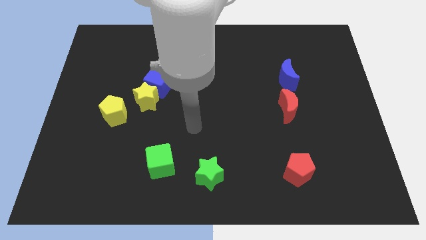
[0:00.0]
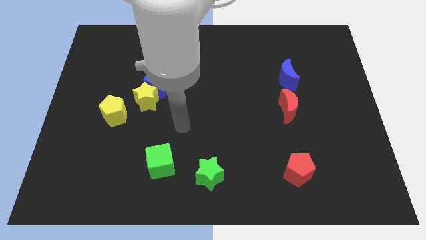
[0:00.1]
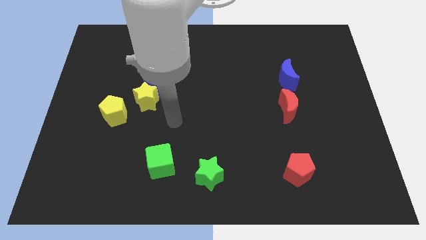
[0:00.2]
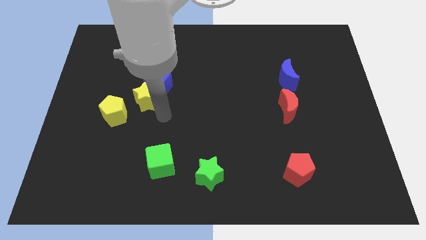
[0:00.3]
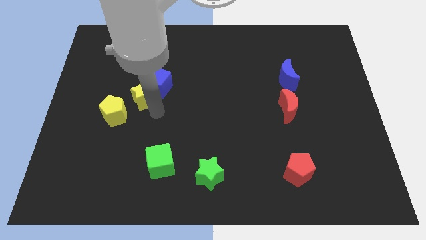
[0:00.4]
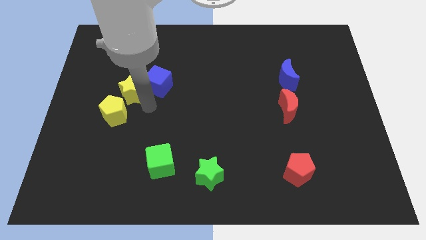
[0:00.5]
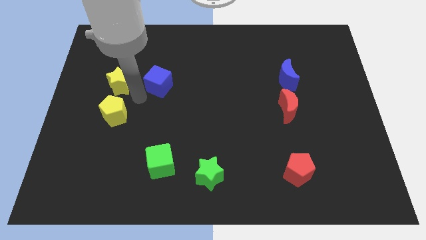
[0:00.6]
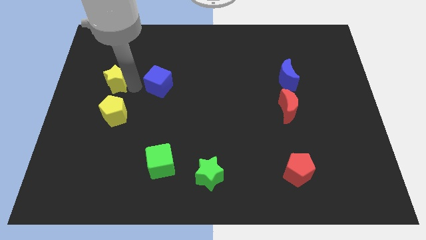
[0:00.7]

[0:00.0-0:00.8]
separate the blue cube from the yellow star

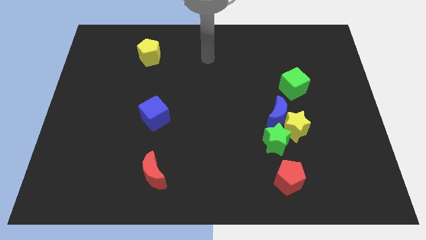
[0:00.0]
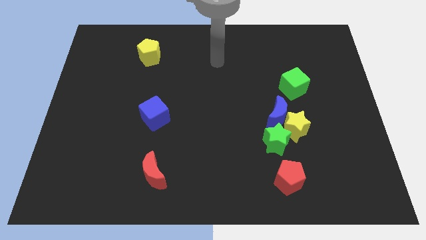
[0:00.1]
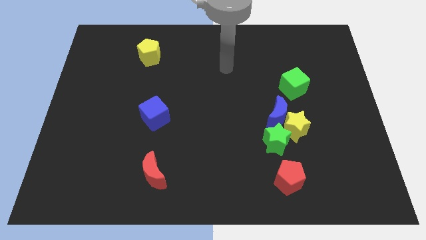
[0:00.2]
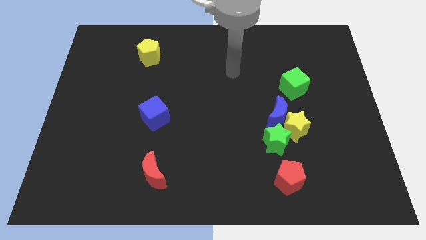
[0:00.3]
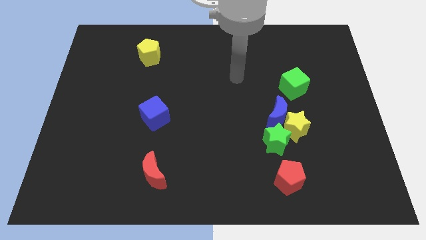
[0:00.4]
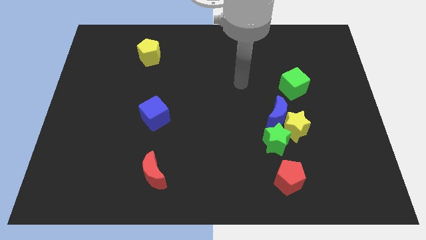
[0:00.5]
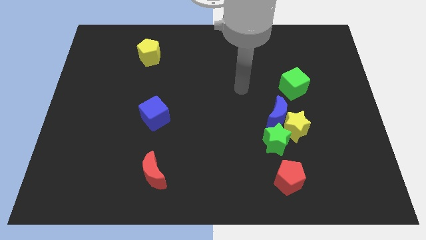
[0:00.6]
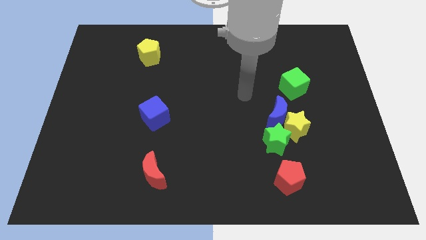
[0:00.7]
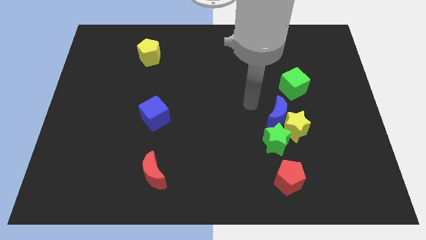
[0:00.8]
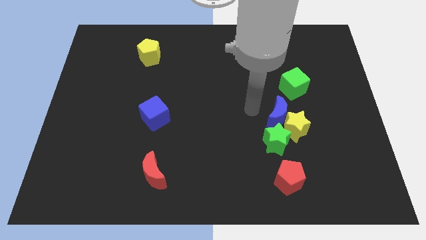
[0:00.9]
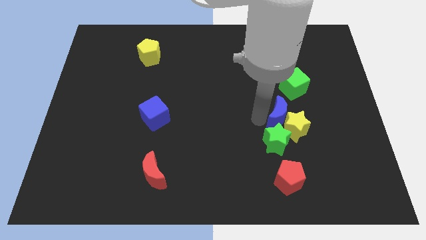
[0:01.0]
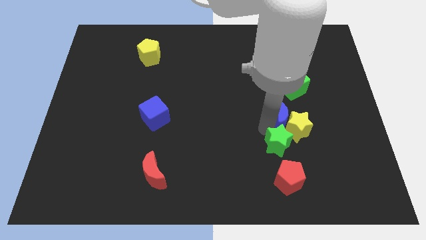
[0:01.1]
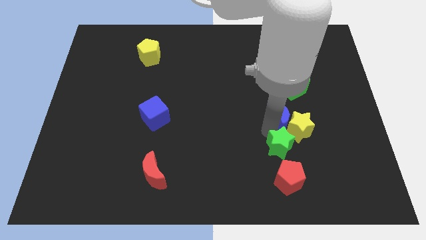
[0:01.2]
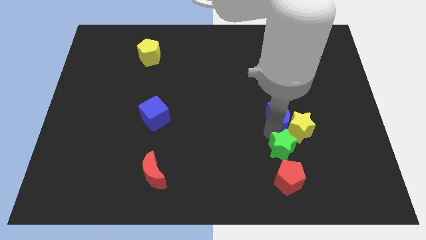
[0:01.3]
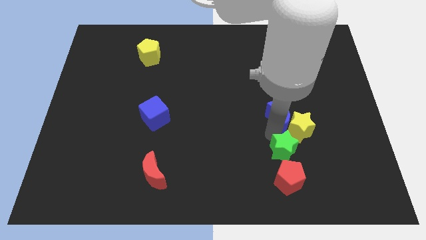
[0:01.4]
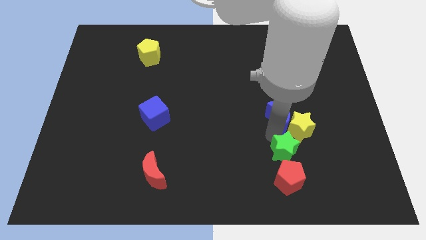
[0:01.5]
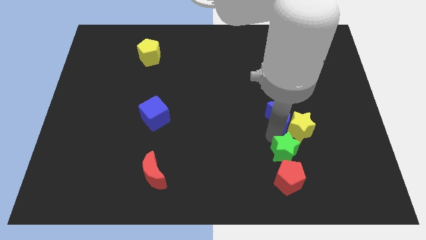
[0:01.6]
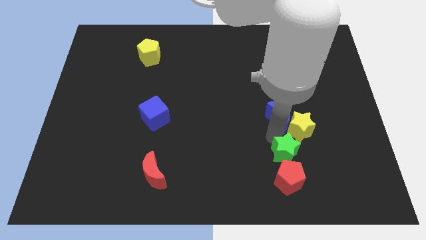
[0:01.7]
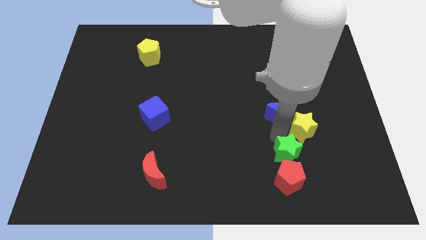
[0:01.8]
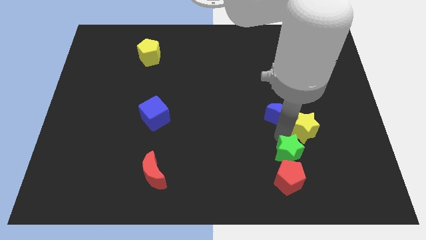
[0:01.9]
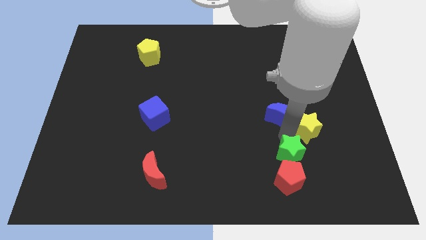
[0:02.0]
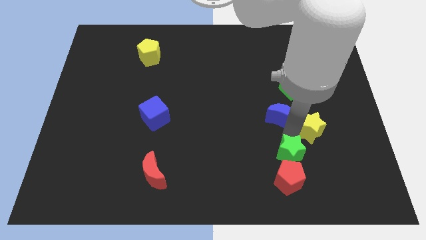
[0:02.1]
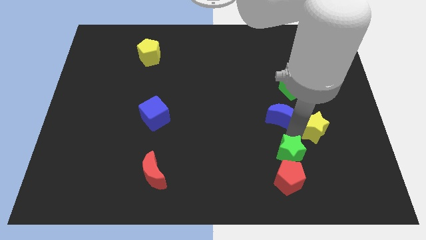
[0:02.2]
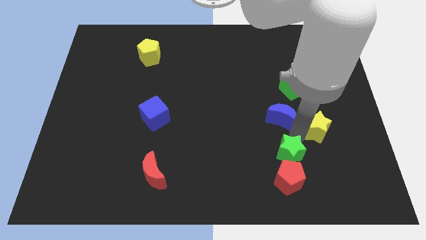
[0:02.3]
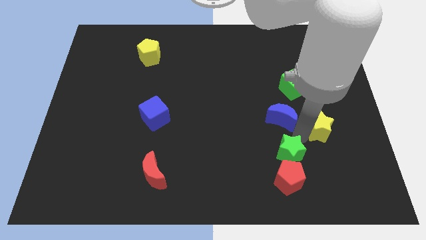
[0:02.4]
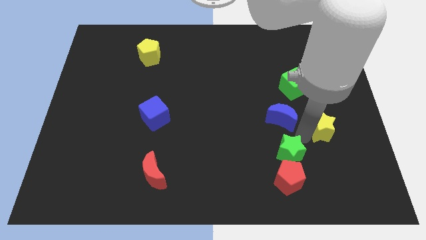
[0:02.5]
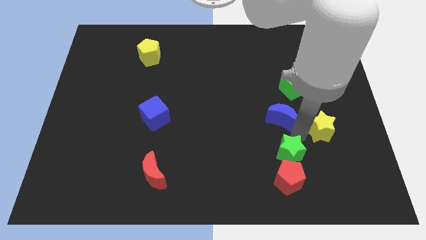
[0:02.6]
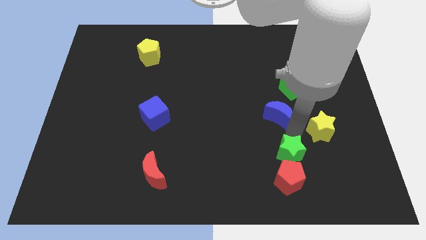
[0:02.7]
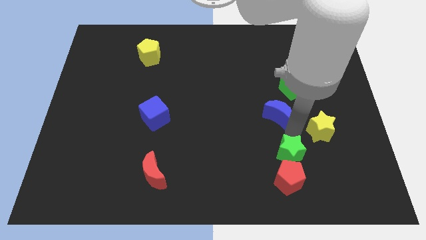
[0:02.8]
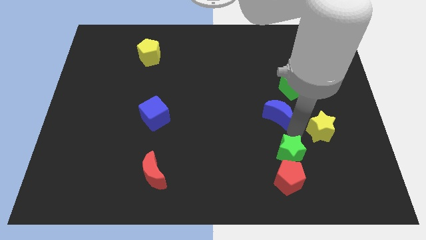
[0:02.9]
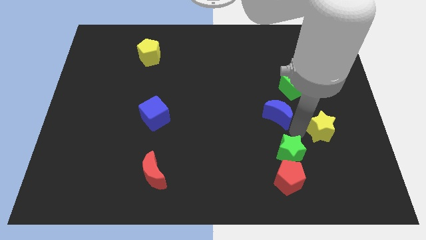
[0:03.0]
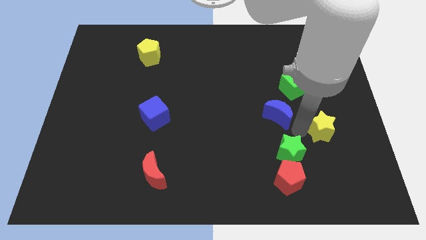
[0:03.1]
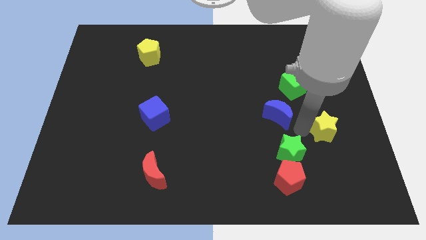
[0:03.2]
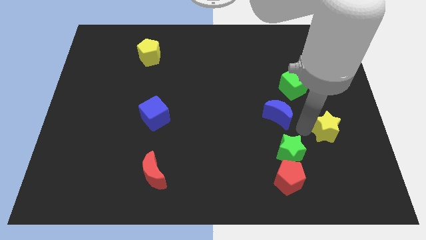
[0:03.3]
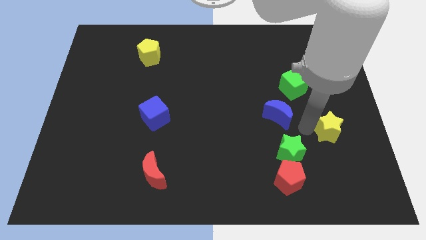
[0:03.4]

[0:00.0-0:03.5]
separate the yellow star from the blue moon and green star

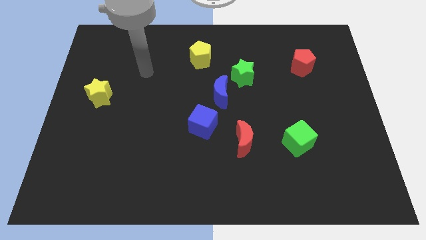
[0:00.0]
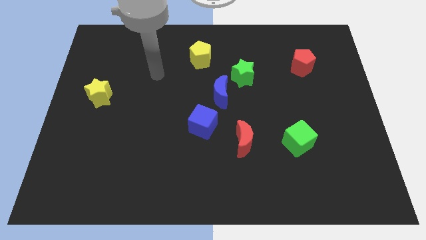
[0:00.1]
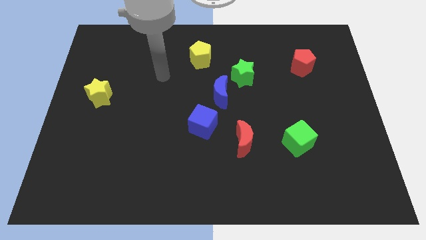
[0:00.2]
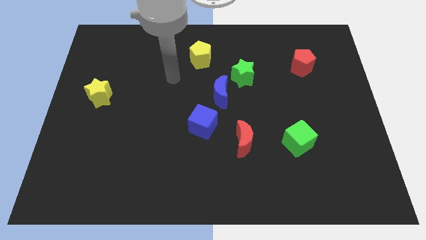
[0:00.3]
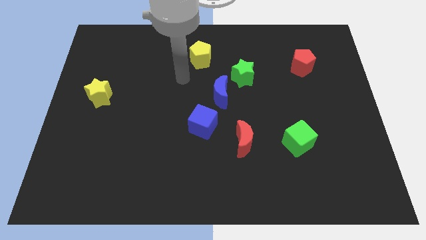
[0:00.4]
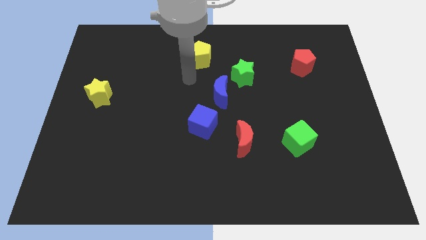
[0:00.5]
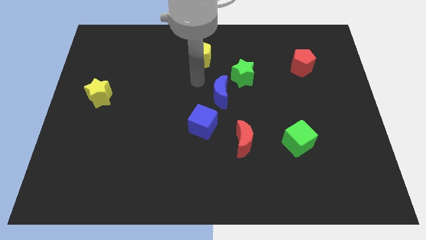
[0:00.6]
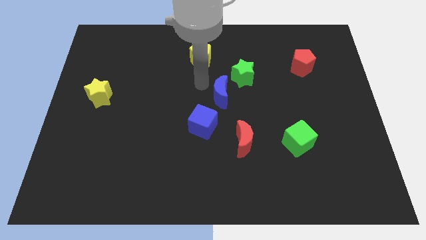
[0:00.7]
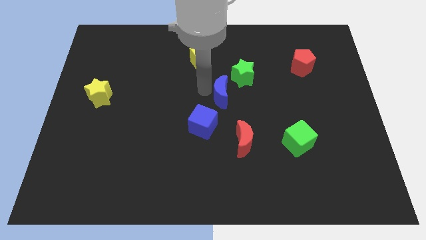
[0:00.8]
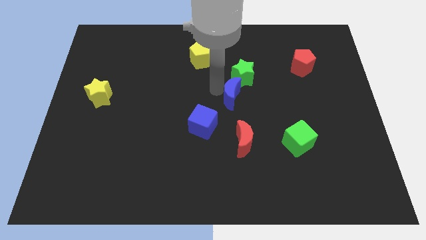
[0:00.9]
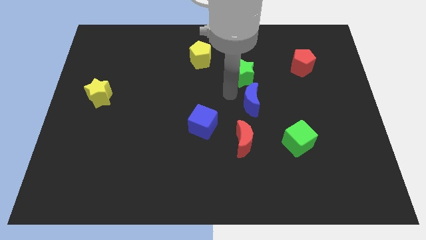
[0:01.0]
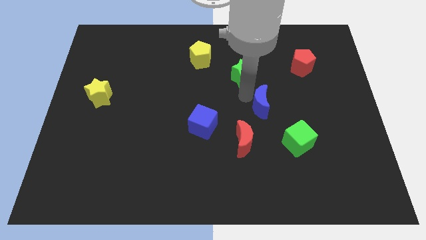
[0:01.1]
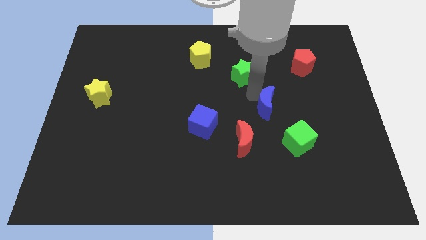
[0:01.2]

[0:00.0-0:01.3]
separate the green star from the blue moon

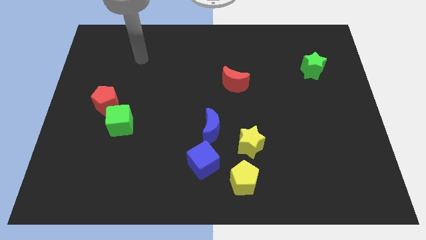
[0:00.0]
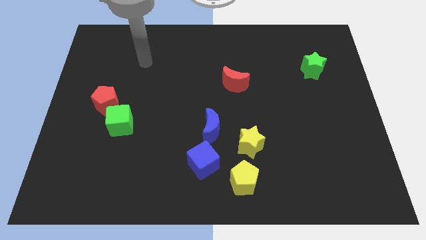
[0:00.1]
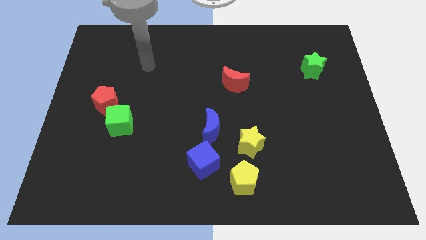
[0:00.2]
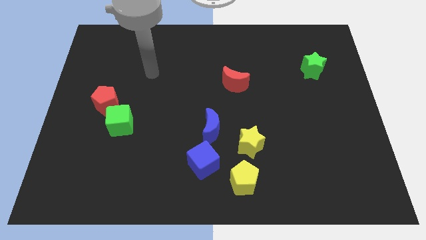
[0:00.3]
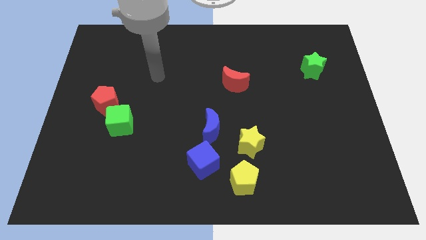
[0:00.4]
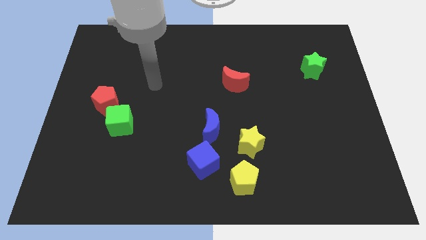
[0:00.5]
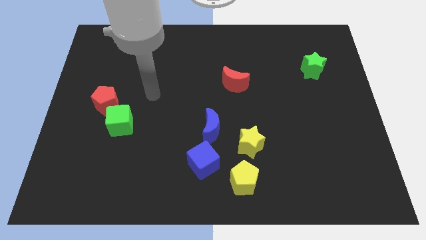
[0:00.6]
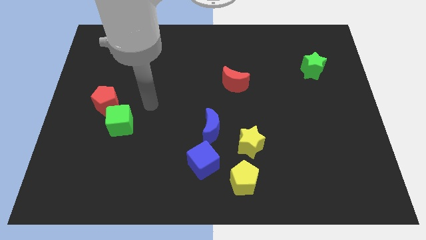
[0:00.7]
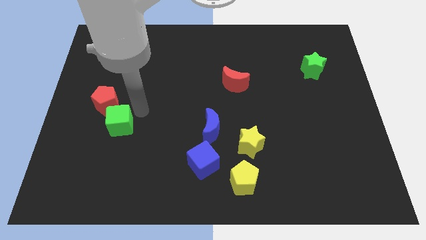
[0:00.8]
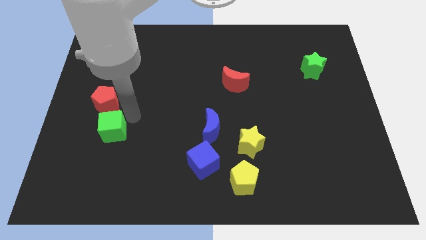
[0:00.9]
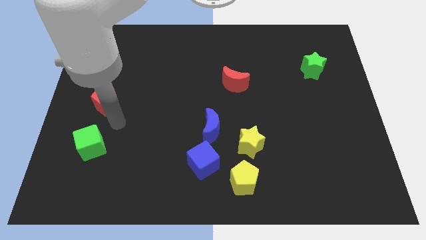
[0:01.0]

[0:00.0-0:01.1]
separate the red pentagon from the green cube

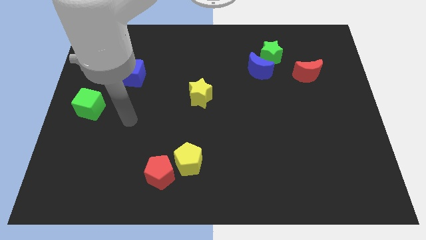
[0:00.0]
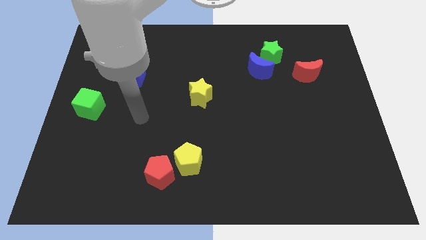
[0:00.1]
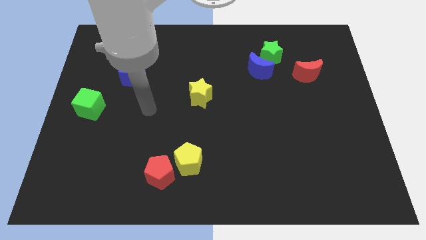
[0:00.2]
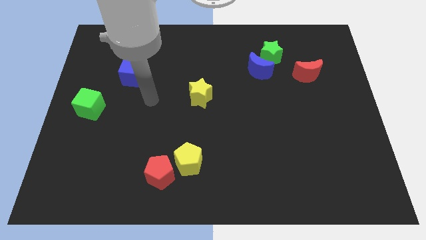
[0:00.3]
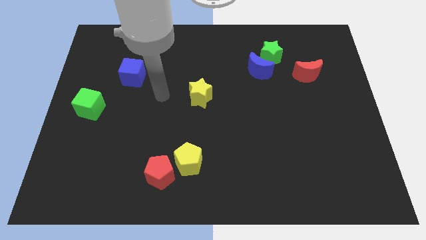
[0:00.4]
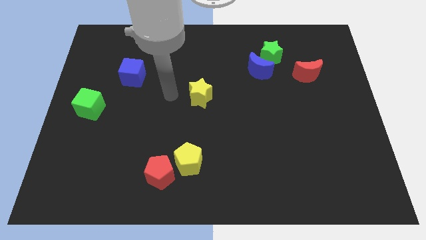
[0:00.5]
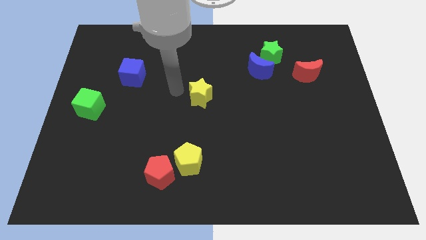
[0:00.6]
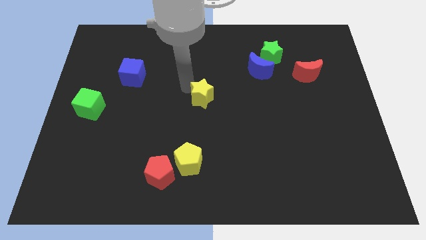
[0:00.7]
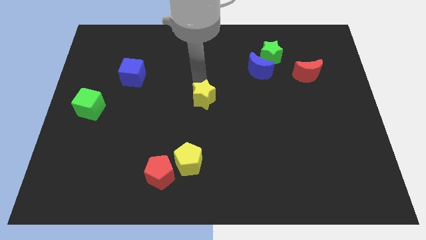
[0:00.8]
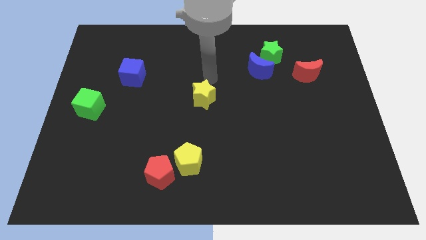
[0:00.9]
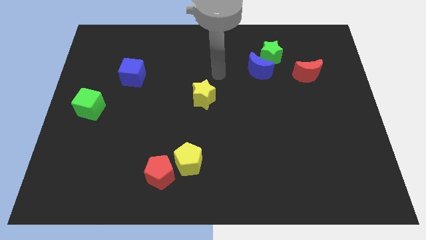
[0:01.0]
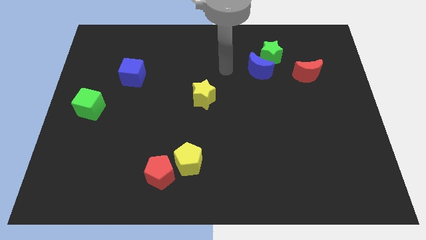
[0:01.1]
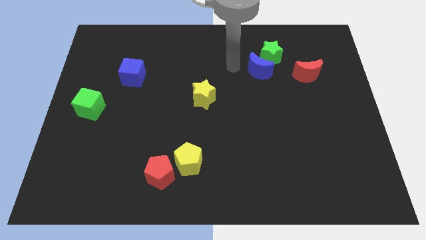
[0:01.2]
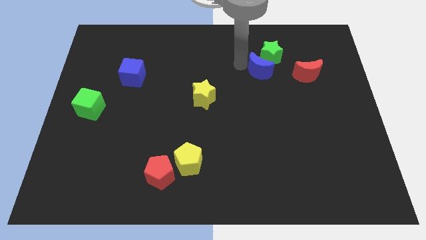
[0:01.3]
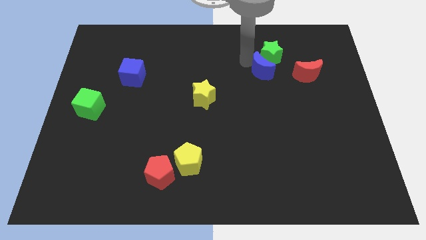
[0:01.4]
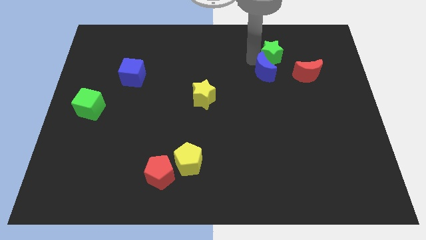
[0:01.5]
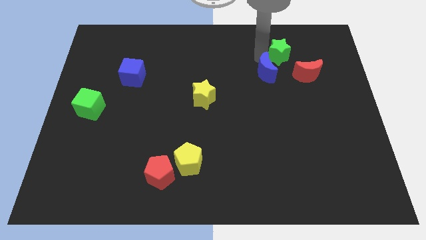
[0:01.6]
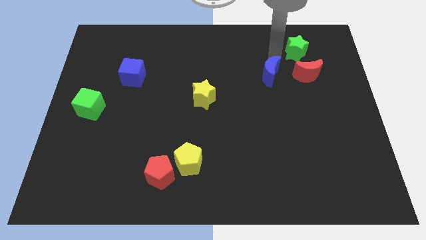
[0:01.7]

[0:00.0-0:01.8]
separate the blue moon from the green star

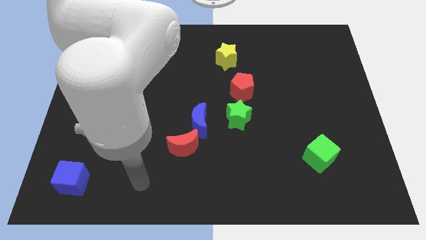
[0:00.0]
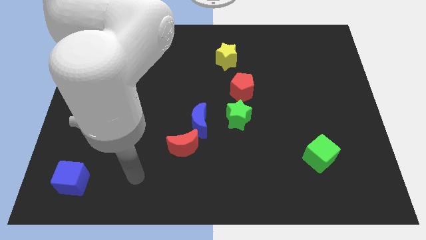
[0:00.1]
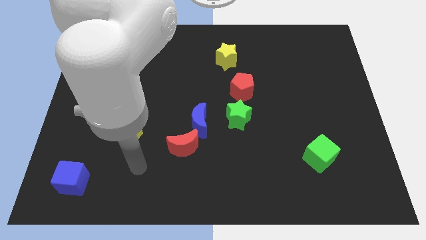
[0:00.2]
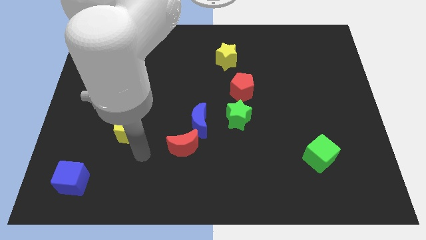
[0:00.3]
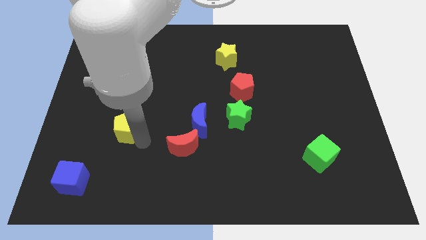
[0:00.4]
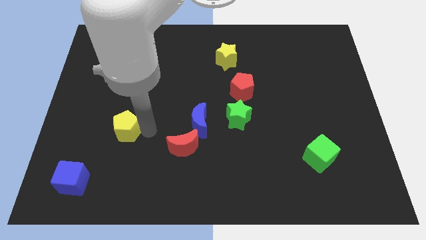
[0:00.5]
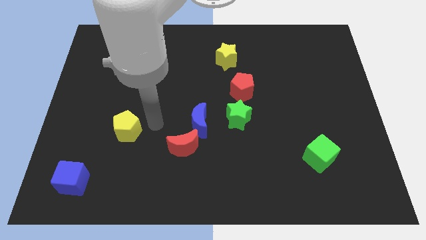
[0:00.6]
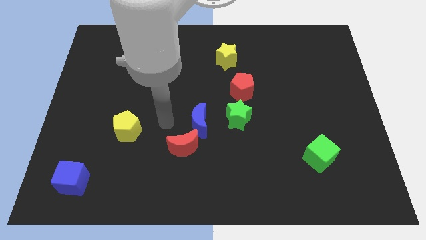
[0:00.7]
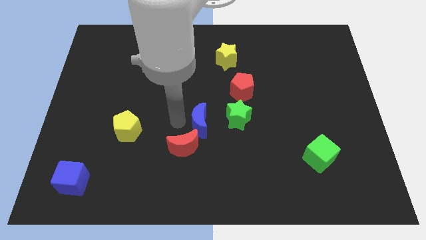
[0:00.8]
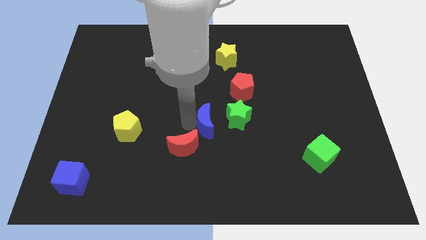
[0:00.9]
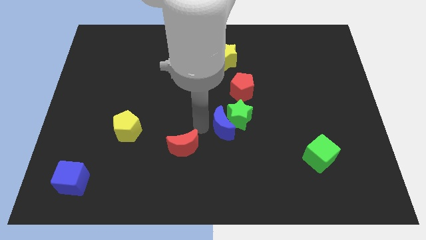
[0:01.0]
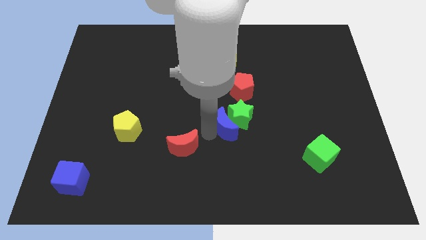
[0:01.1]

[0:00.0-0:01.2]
move the red moon away from the blue moon
